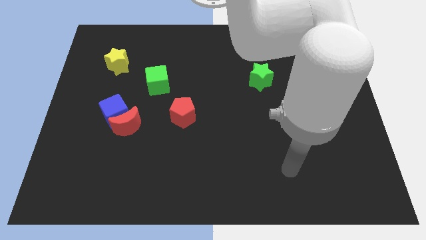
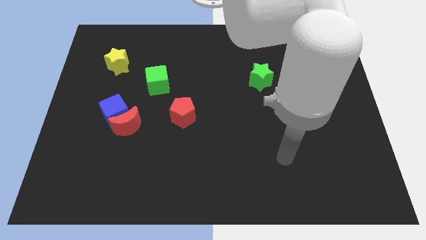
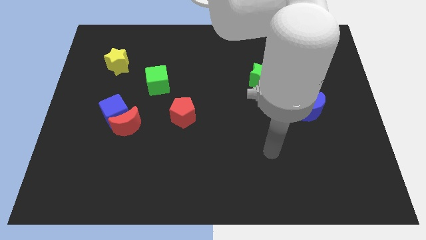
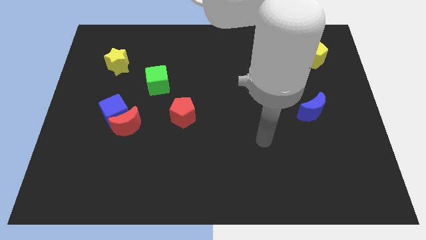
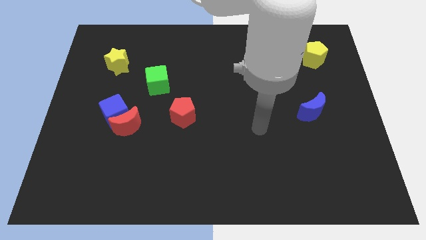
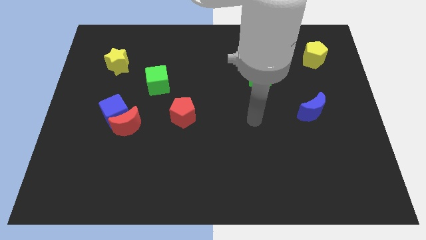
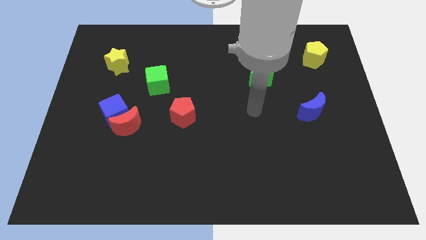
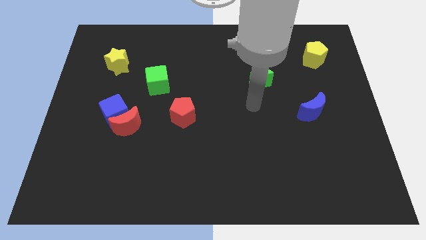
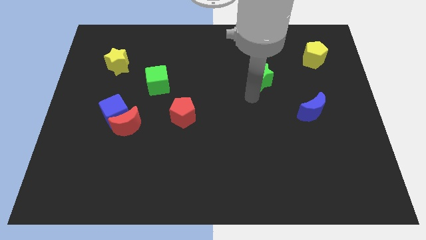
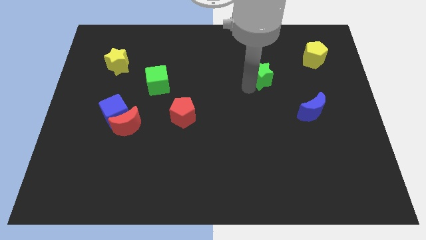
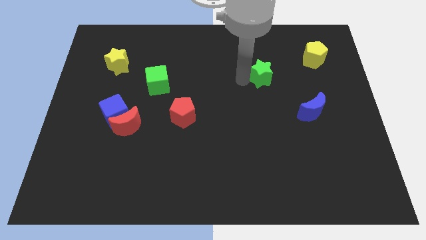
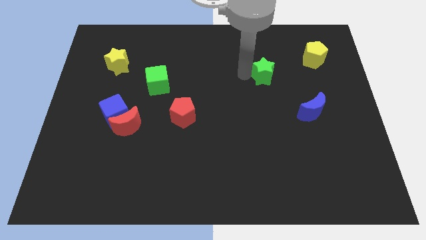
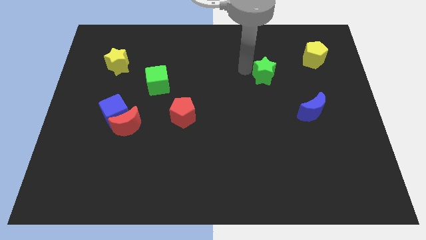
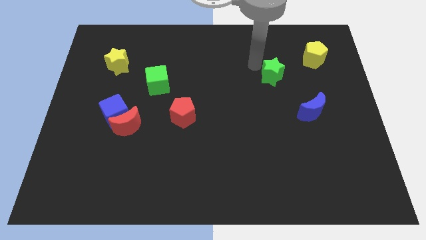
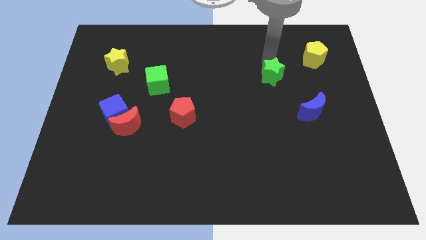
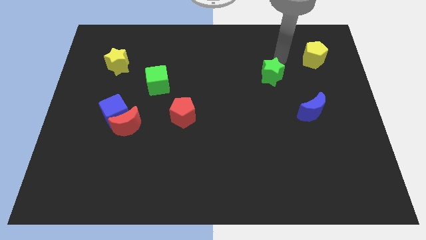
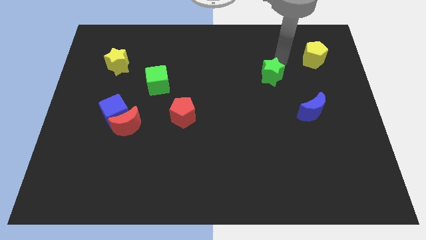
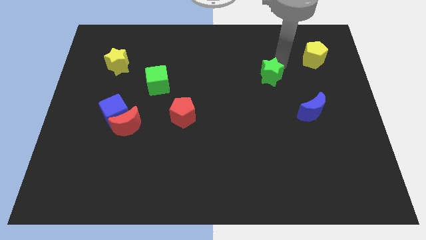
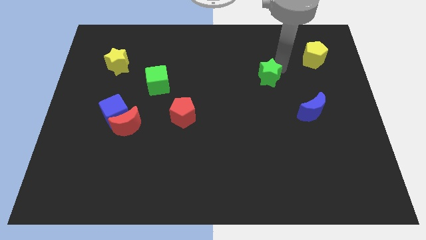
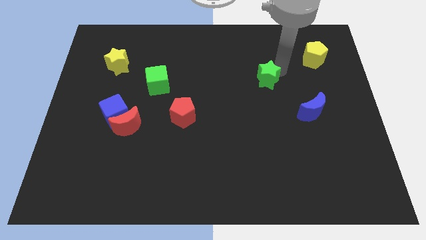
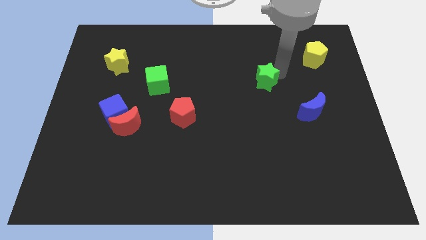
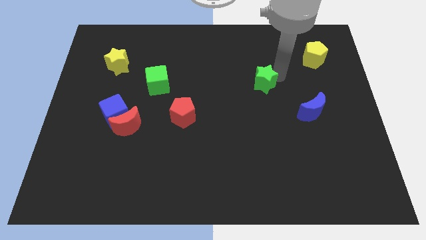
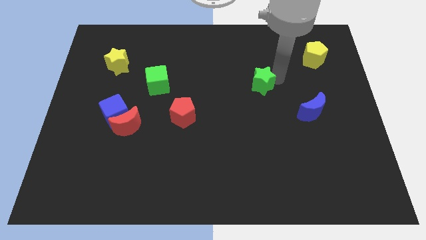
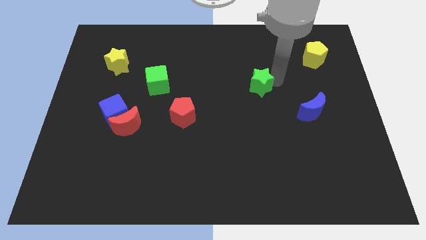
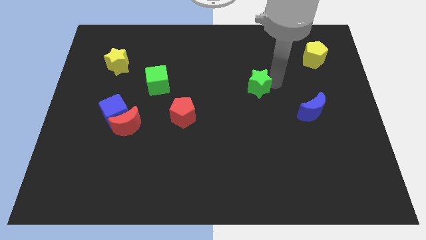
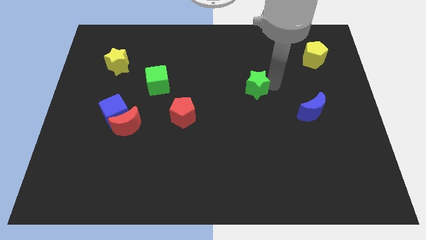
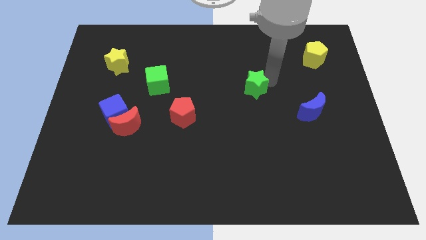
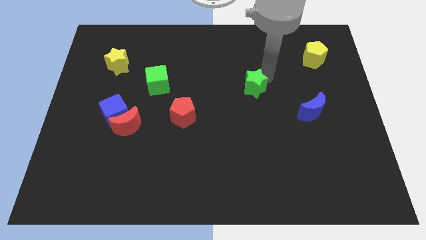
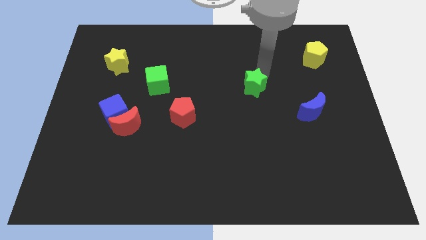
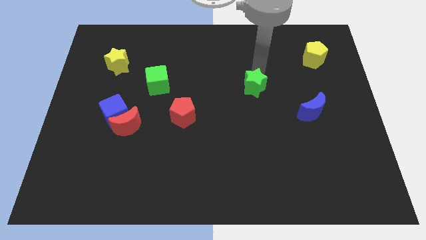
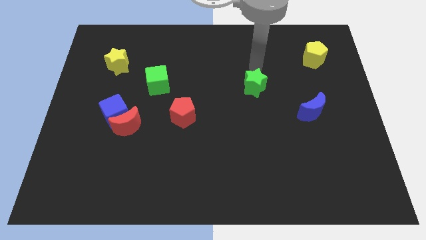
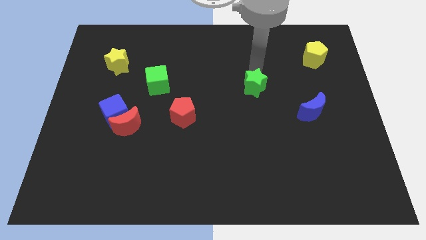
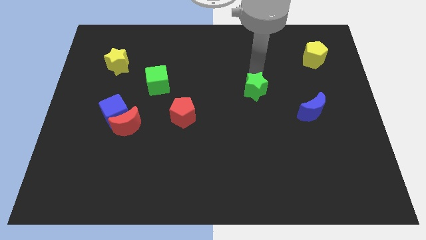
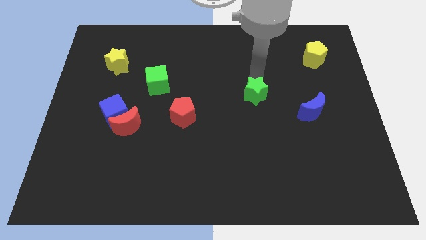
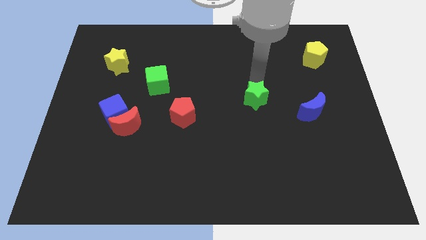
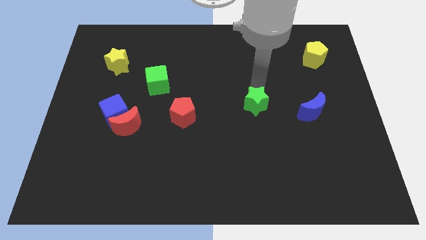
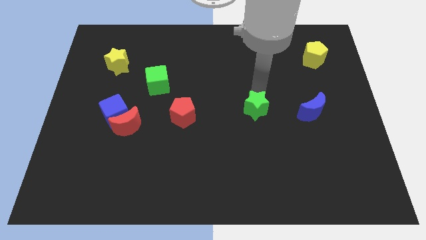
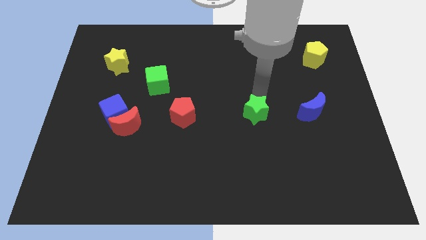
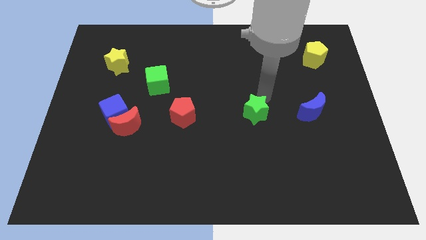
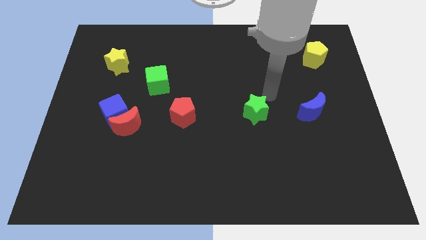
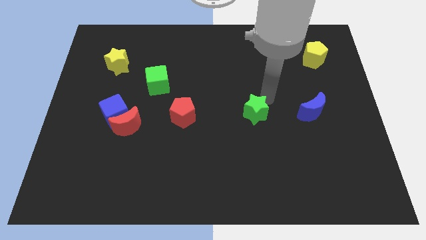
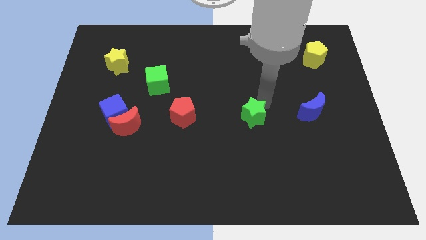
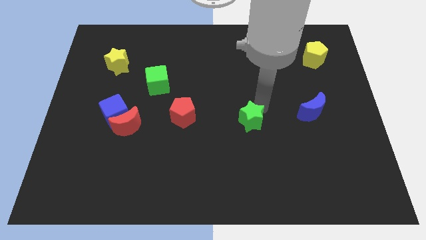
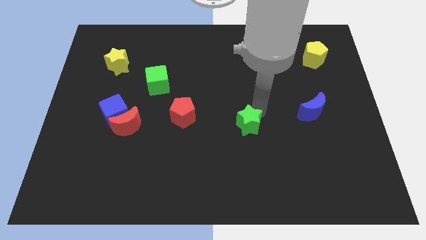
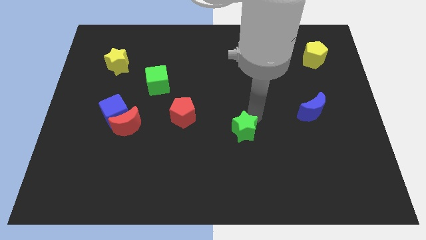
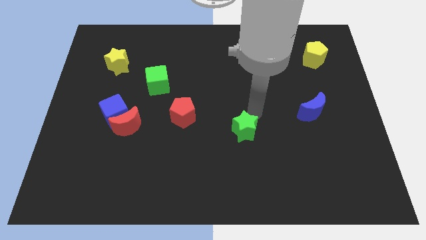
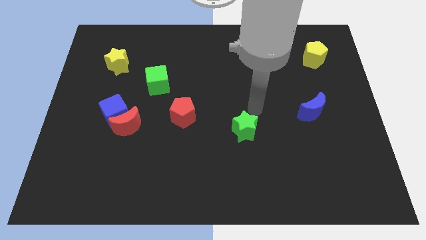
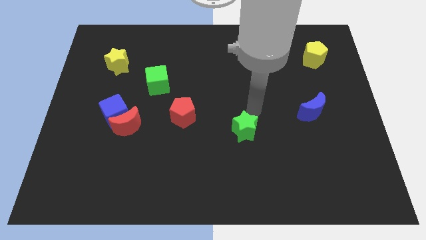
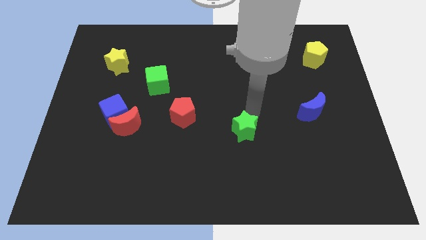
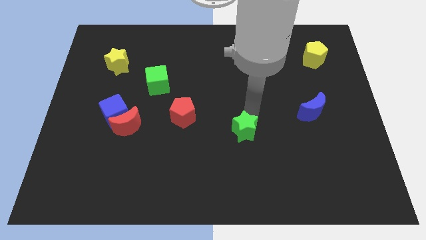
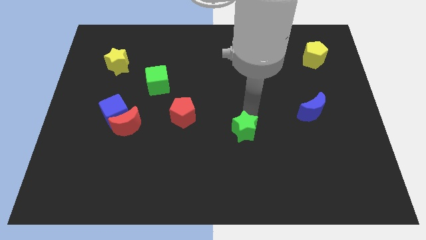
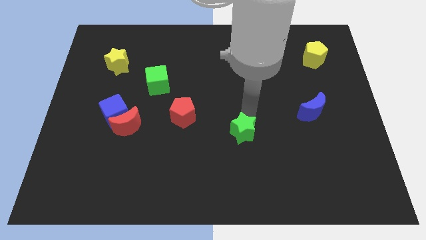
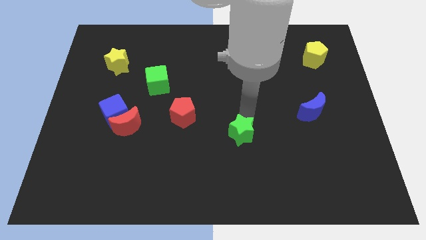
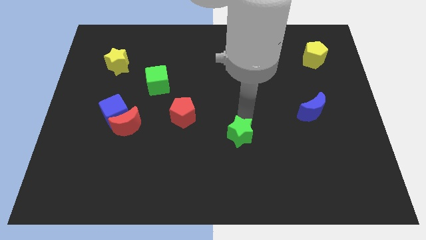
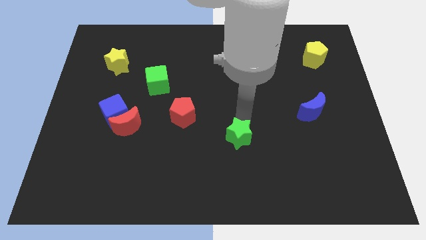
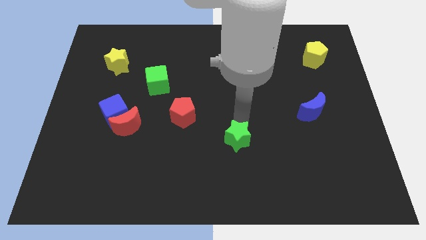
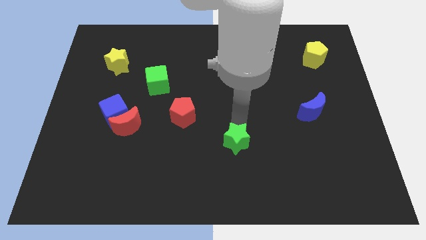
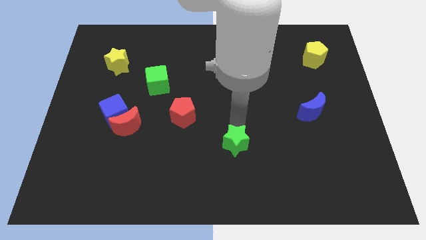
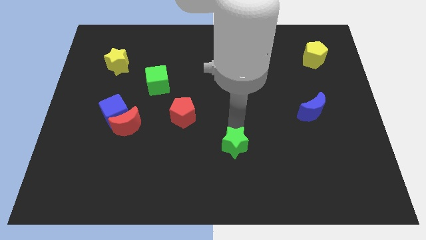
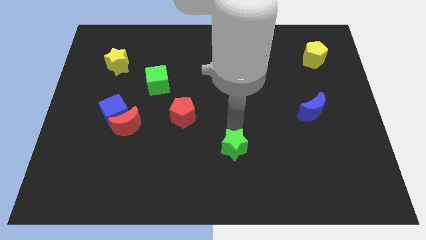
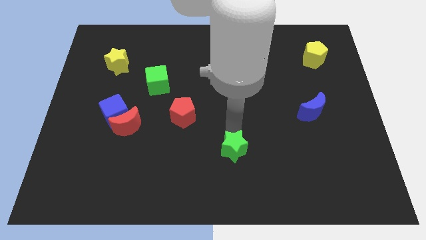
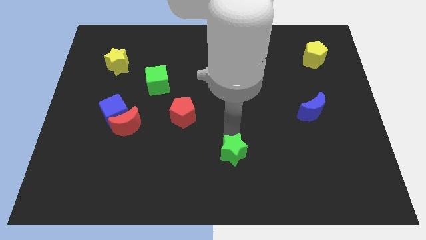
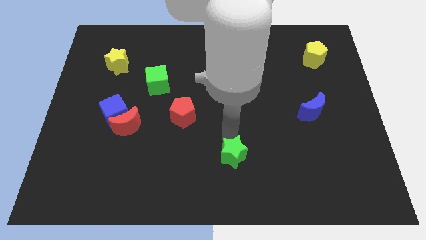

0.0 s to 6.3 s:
put the green star to the bottom side

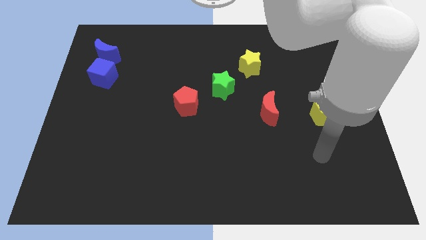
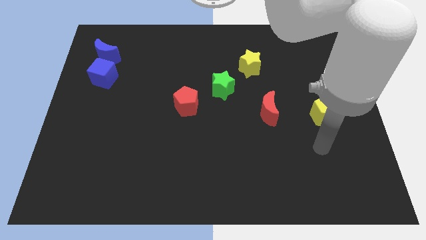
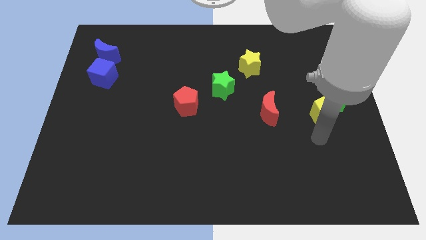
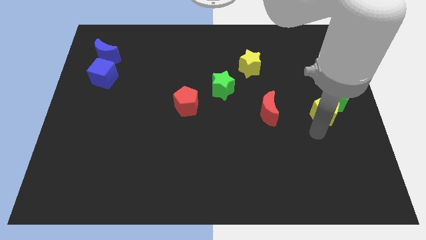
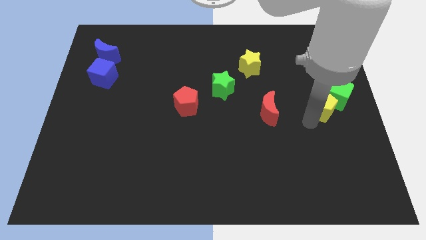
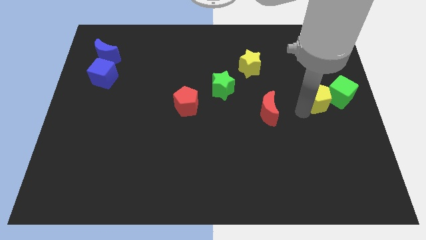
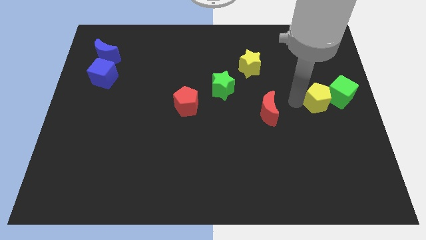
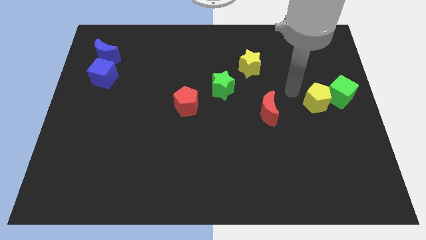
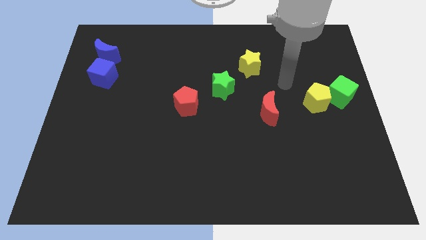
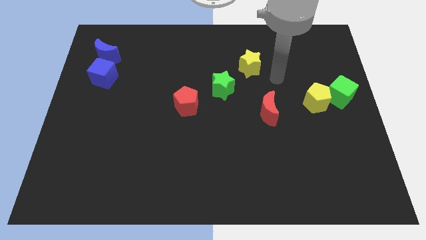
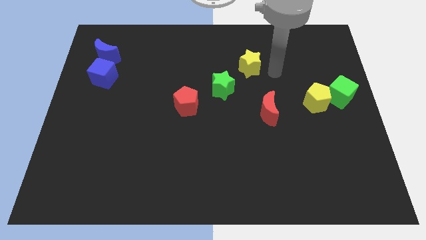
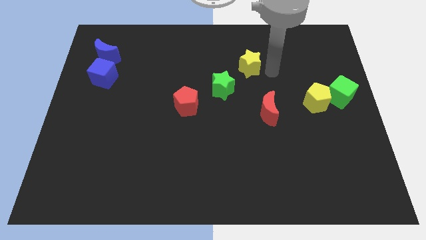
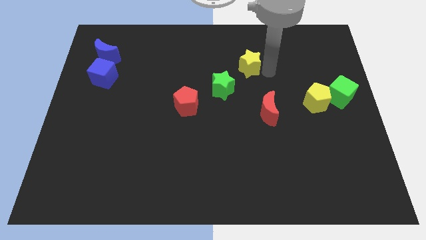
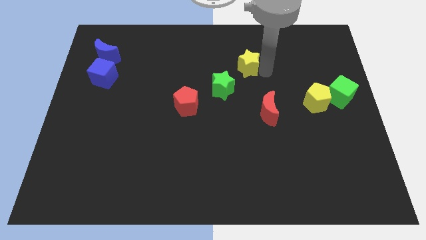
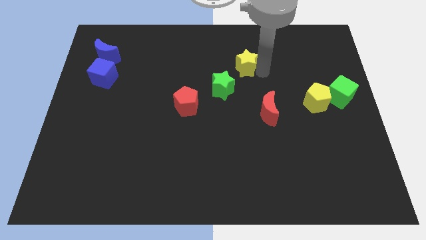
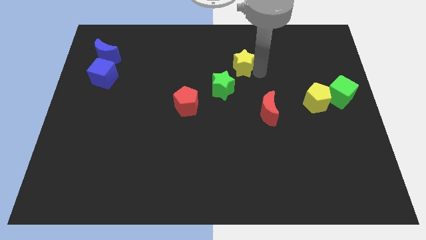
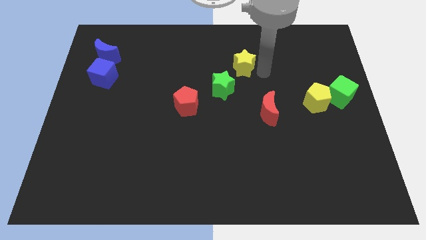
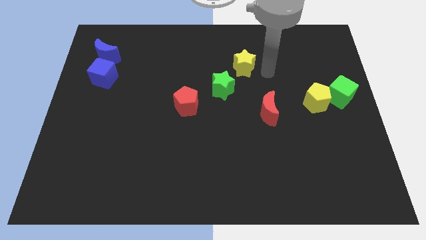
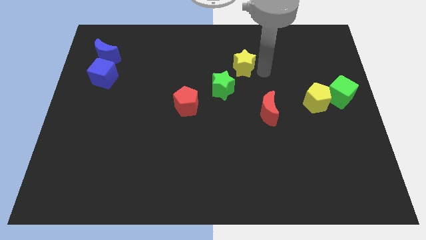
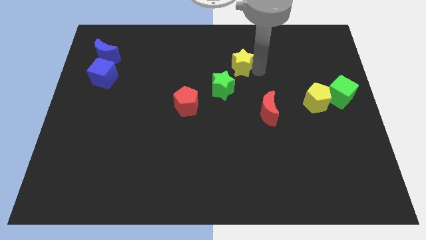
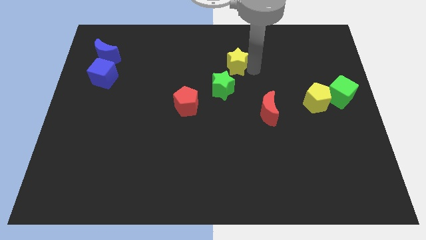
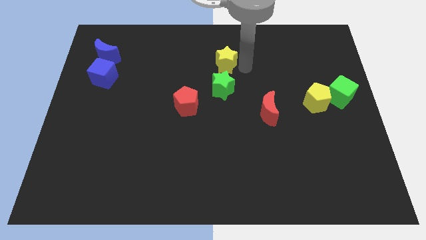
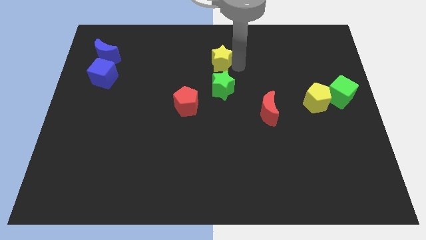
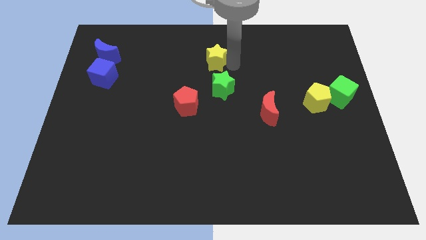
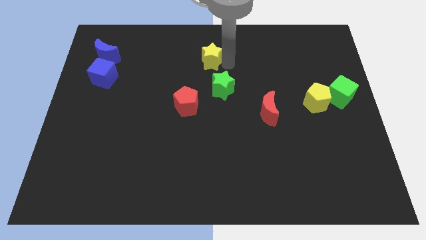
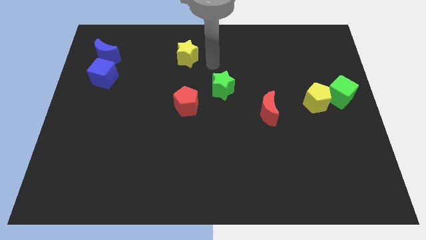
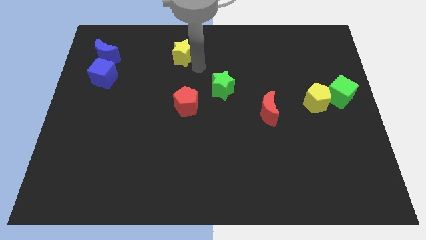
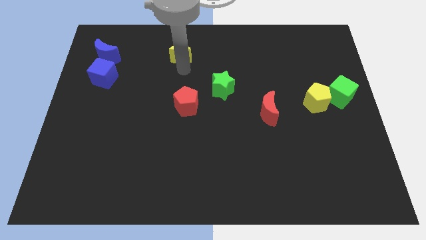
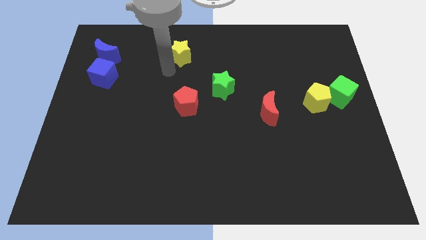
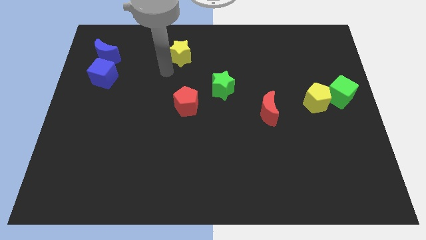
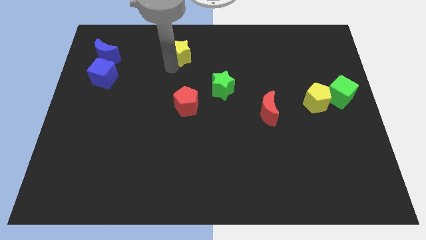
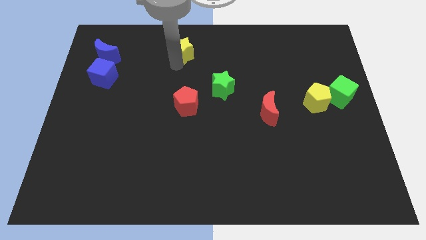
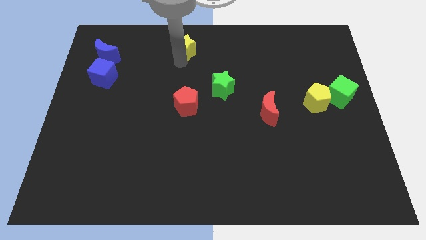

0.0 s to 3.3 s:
push the yellow star to the towards your base
